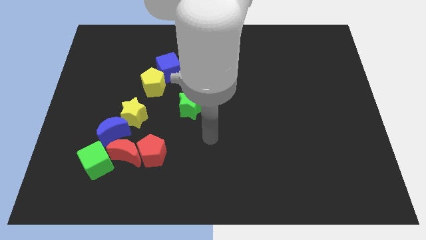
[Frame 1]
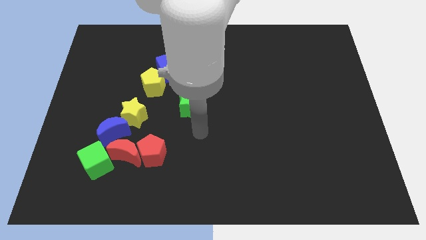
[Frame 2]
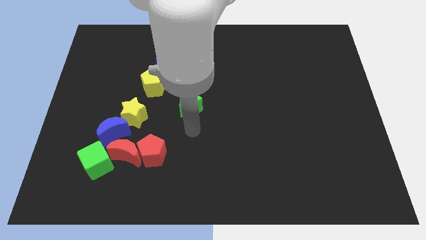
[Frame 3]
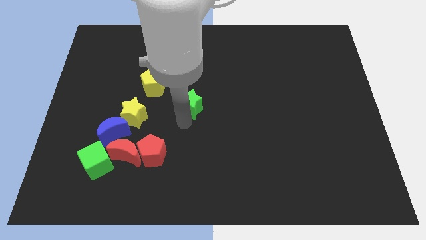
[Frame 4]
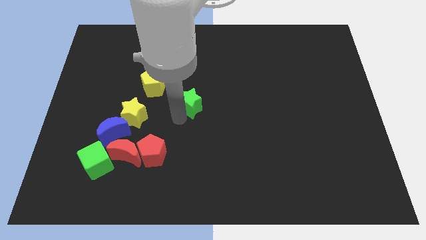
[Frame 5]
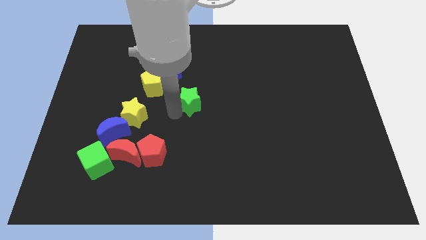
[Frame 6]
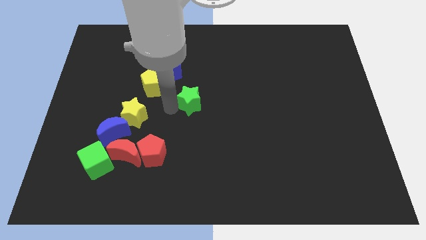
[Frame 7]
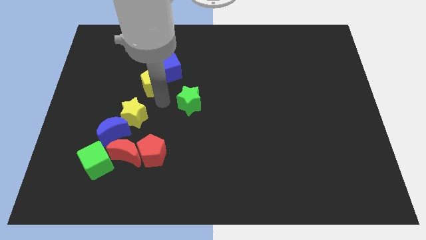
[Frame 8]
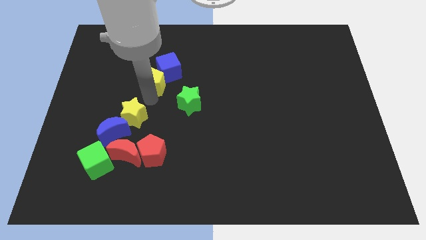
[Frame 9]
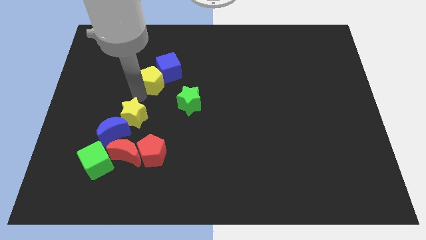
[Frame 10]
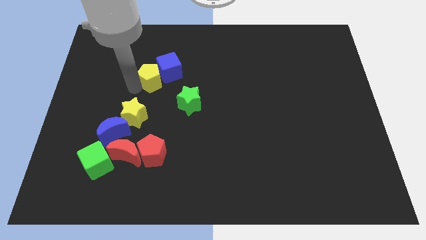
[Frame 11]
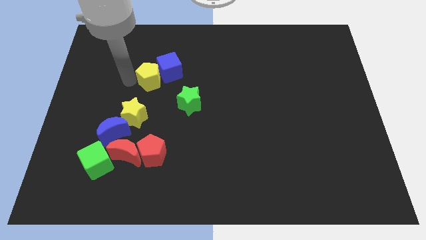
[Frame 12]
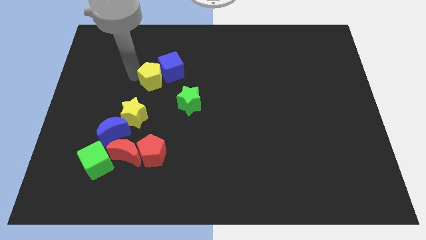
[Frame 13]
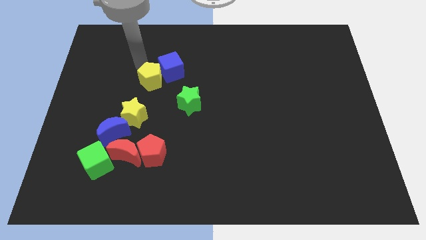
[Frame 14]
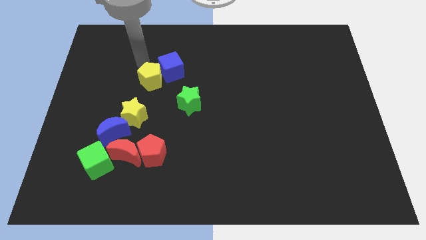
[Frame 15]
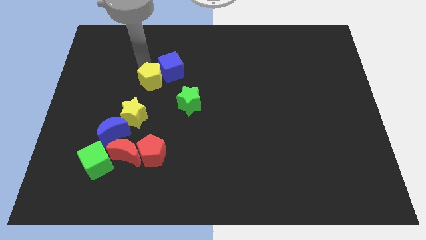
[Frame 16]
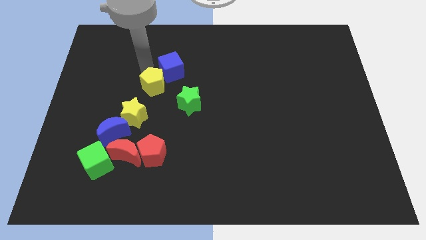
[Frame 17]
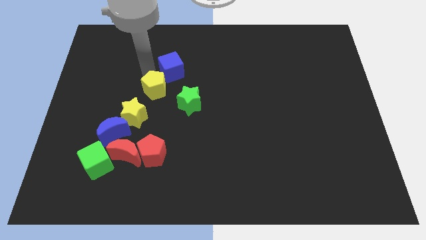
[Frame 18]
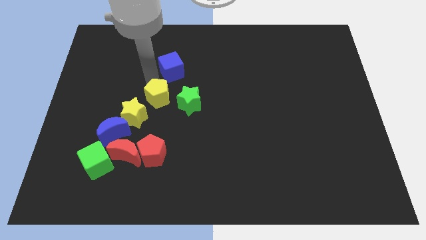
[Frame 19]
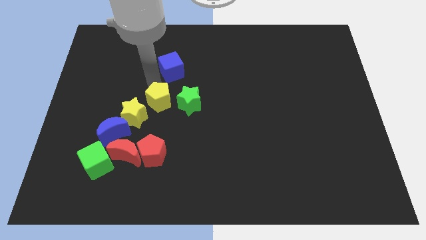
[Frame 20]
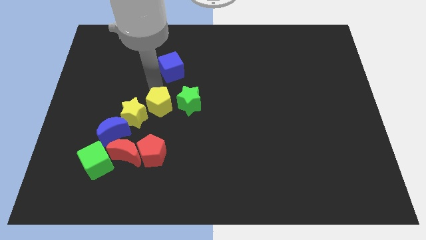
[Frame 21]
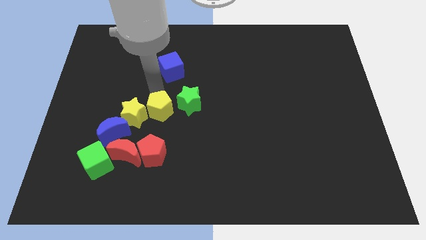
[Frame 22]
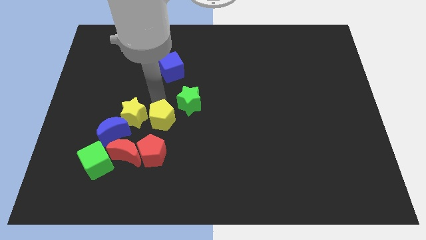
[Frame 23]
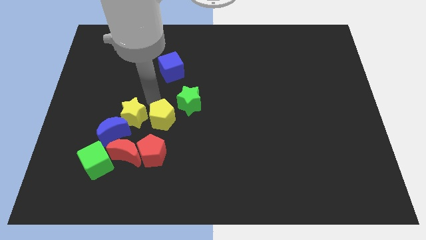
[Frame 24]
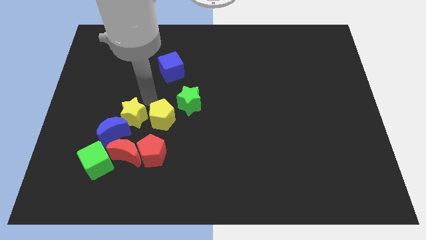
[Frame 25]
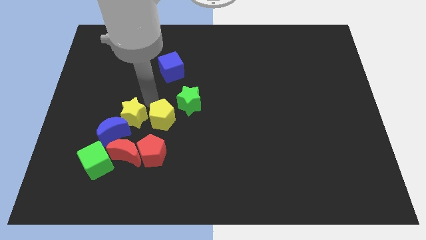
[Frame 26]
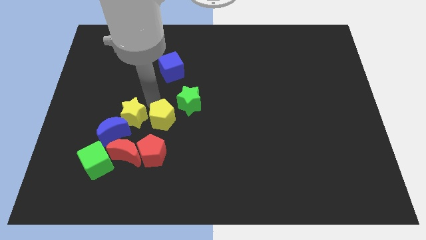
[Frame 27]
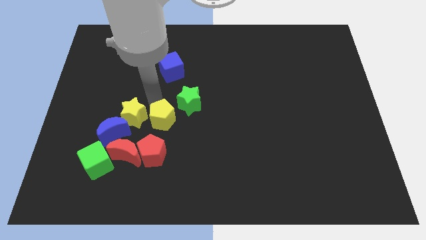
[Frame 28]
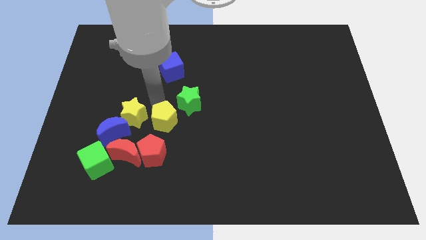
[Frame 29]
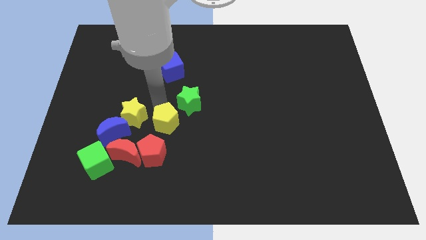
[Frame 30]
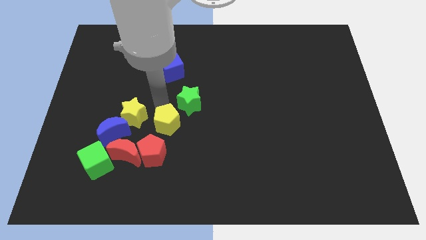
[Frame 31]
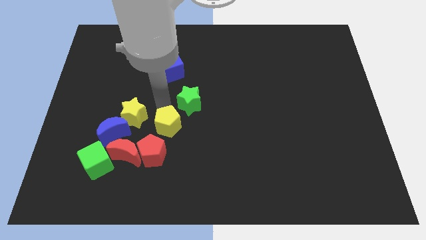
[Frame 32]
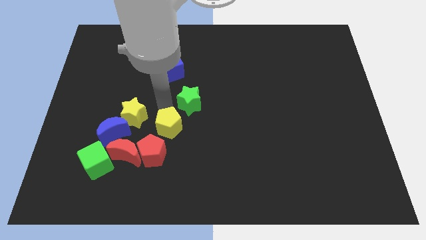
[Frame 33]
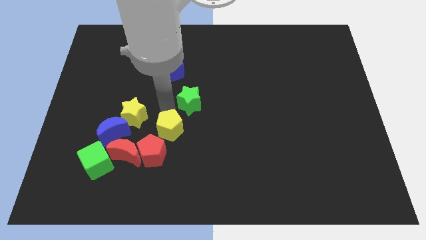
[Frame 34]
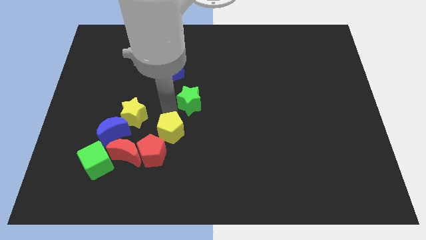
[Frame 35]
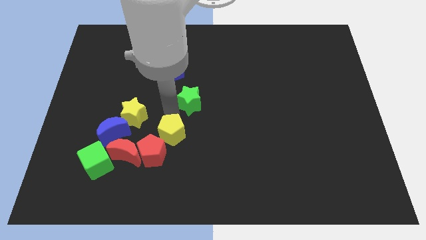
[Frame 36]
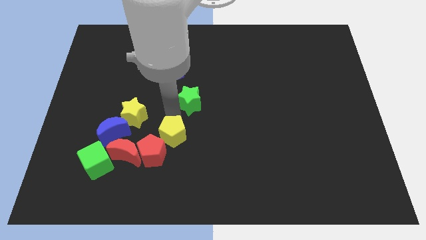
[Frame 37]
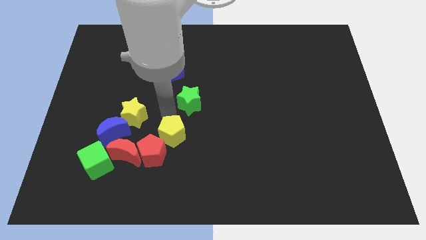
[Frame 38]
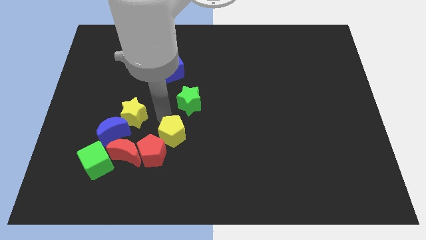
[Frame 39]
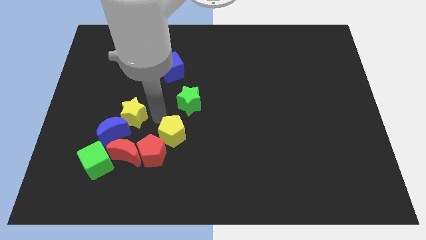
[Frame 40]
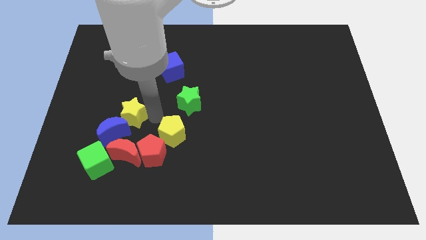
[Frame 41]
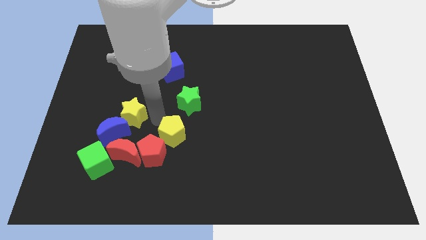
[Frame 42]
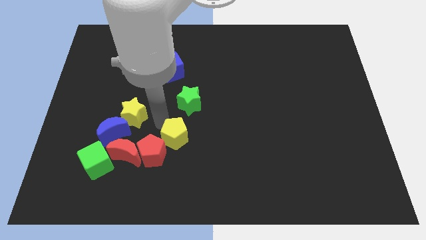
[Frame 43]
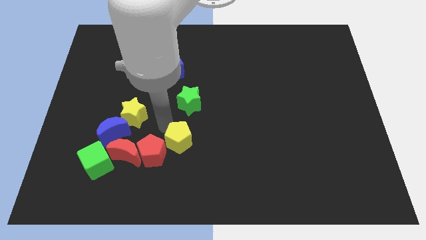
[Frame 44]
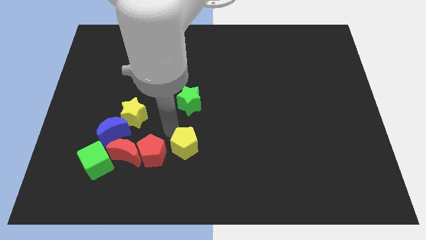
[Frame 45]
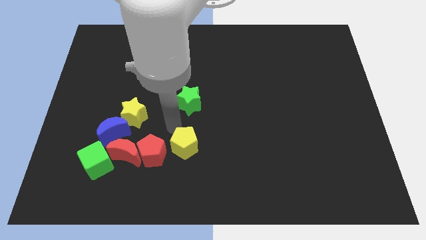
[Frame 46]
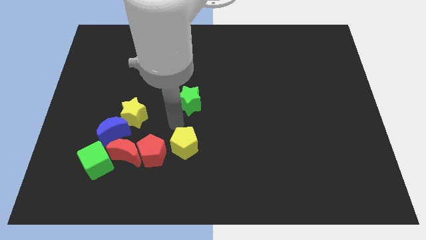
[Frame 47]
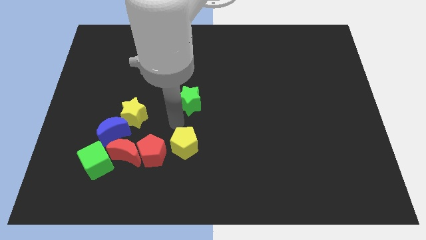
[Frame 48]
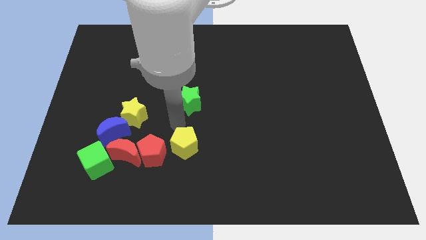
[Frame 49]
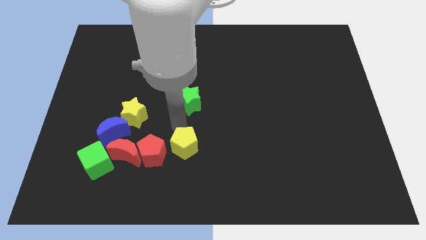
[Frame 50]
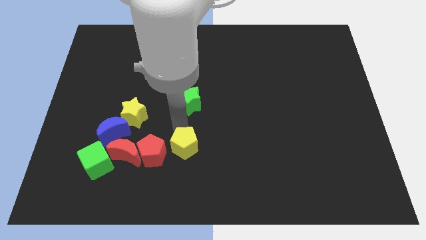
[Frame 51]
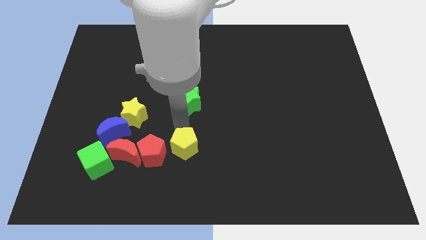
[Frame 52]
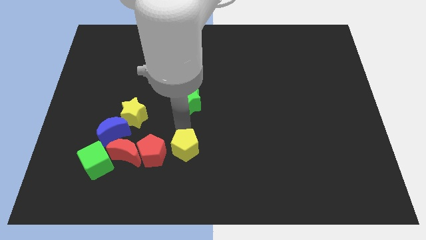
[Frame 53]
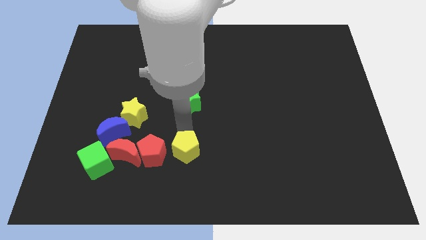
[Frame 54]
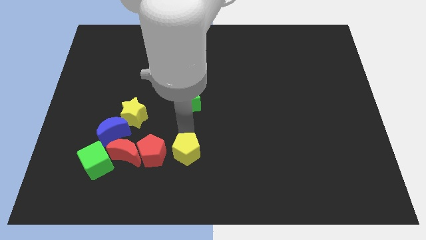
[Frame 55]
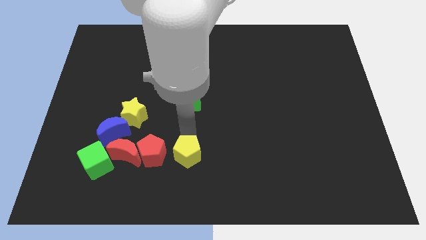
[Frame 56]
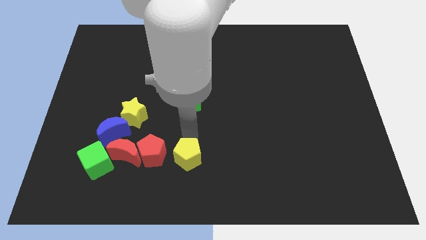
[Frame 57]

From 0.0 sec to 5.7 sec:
slide the yellow pentagon to the bottom
